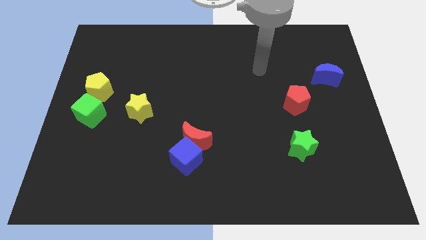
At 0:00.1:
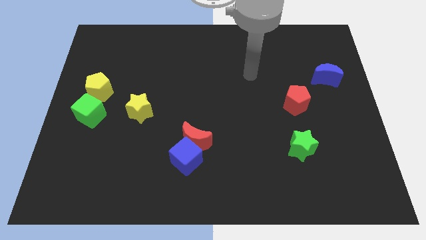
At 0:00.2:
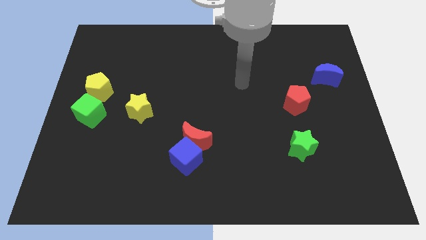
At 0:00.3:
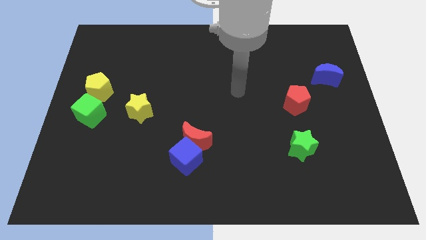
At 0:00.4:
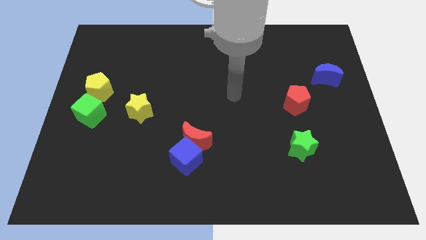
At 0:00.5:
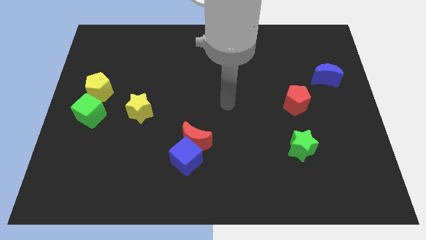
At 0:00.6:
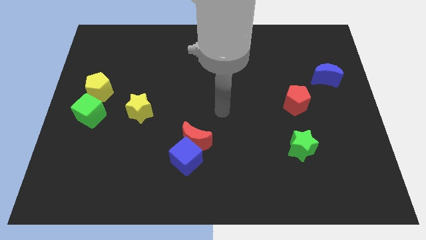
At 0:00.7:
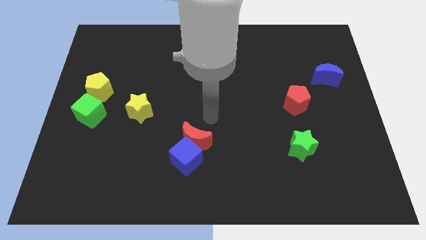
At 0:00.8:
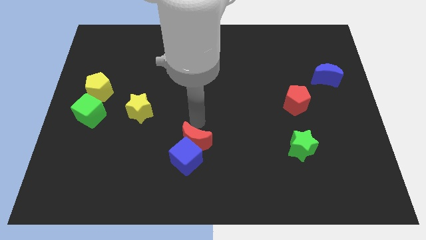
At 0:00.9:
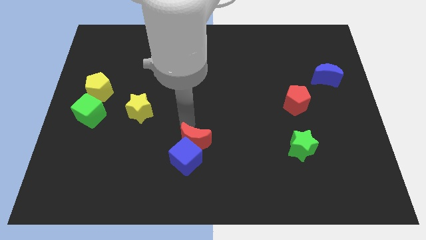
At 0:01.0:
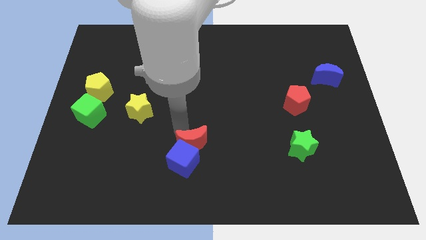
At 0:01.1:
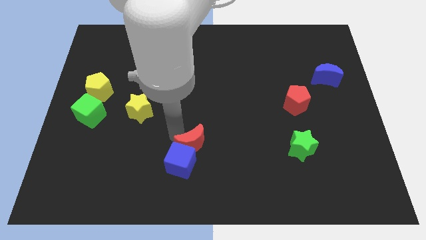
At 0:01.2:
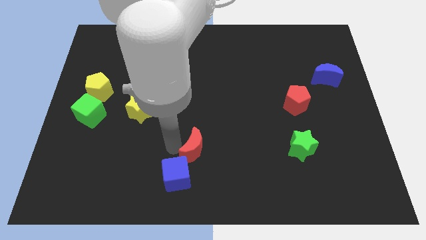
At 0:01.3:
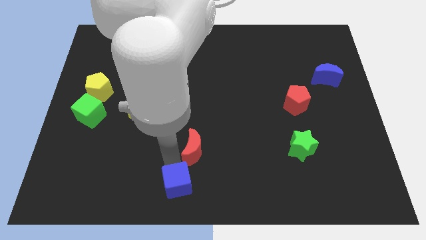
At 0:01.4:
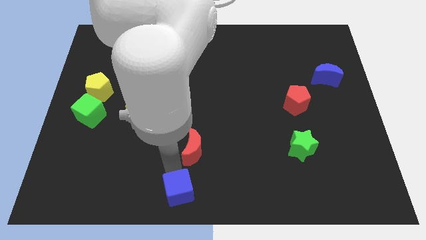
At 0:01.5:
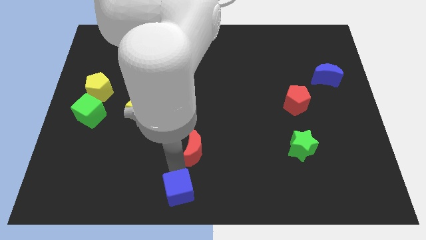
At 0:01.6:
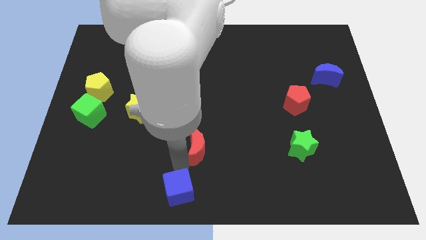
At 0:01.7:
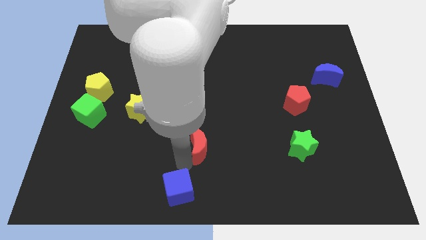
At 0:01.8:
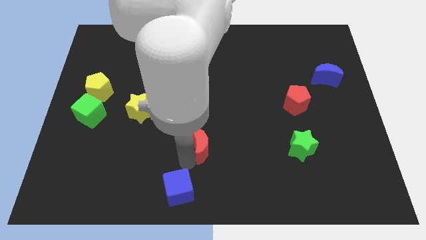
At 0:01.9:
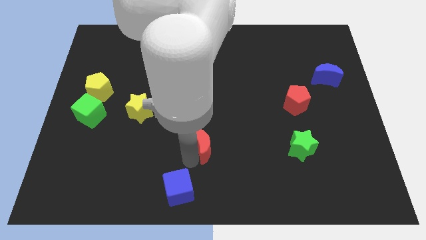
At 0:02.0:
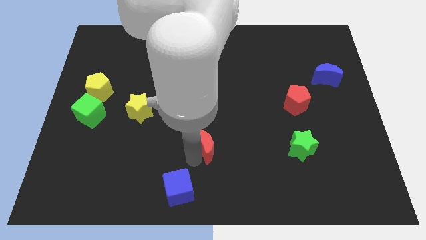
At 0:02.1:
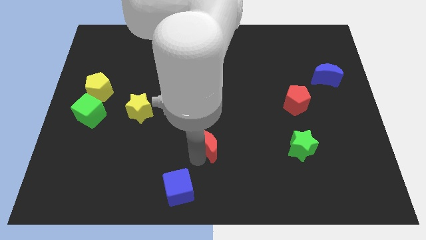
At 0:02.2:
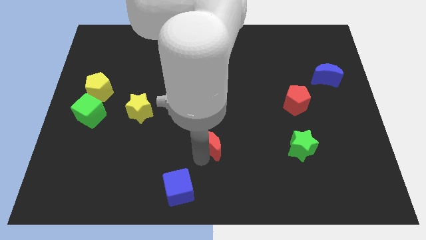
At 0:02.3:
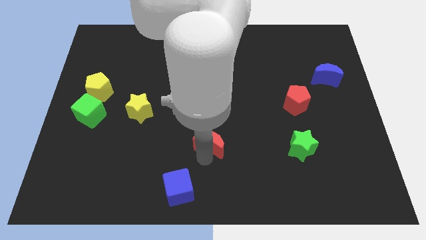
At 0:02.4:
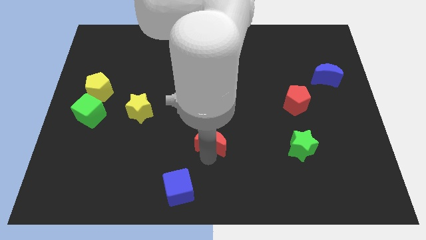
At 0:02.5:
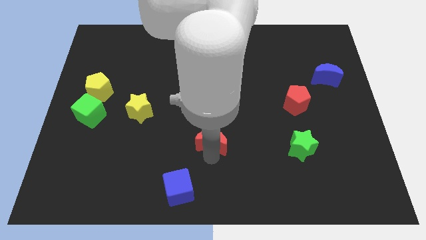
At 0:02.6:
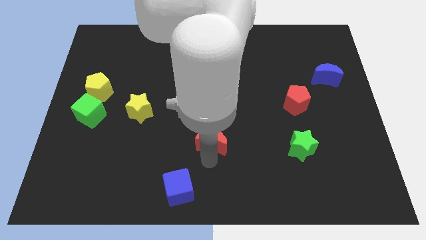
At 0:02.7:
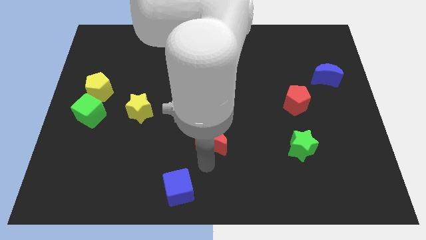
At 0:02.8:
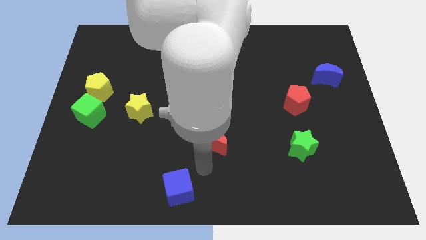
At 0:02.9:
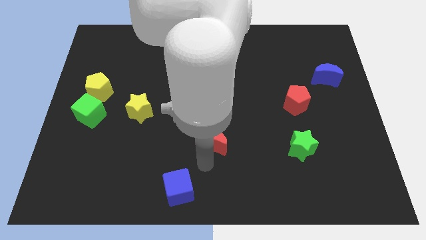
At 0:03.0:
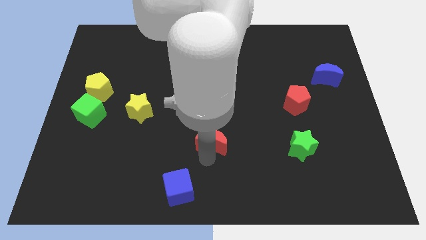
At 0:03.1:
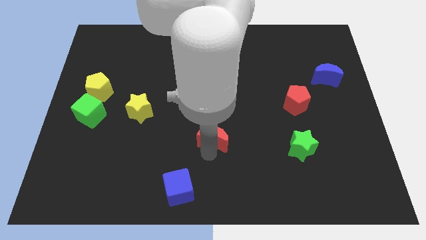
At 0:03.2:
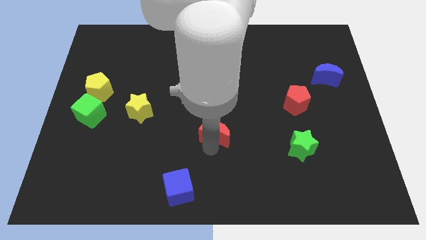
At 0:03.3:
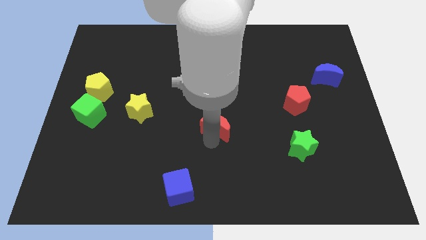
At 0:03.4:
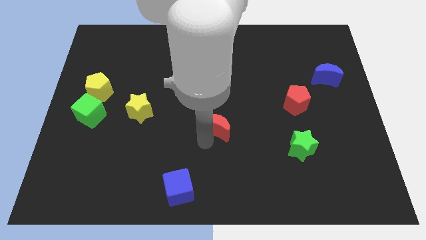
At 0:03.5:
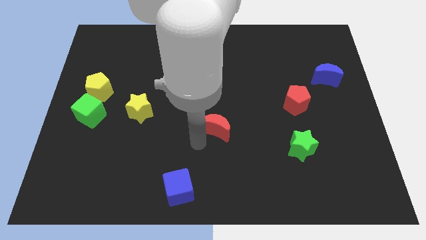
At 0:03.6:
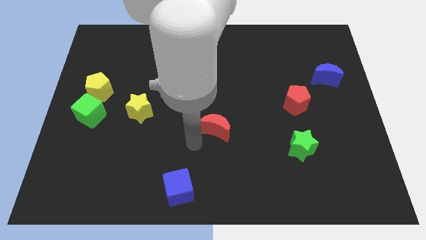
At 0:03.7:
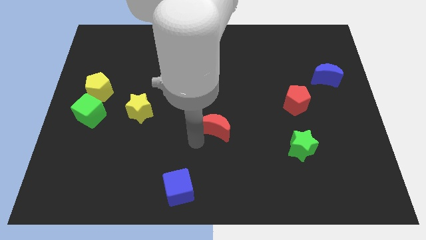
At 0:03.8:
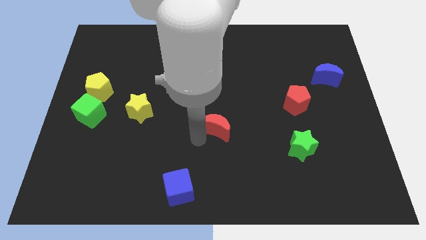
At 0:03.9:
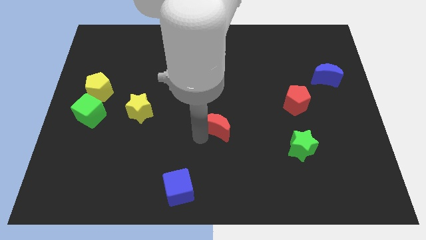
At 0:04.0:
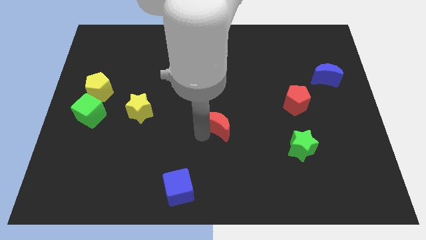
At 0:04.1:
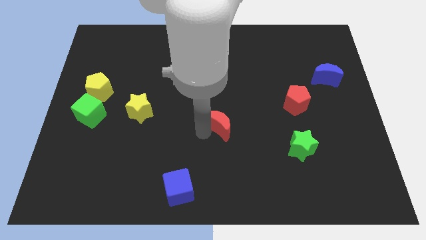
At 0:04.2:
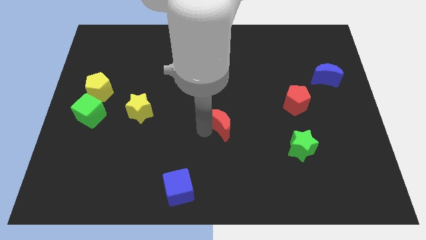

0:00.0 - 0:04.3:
slightly push the red moon upwards and right diagonally

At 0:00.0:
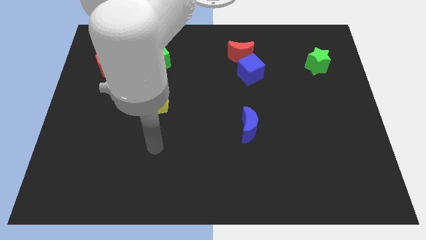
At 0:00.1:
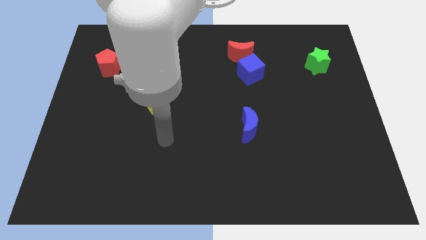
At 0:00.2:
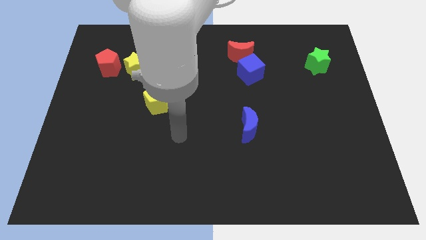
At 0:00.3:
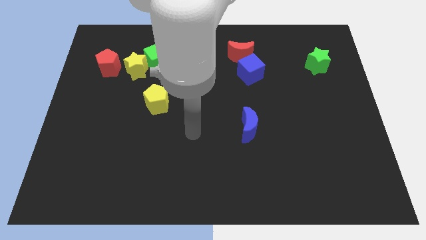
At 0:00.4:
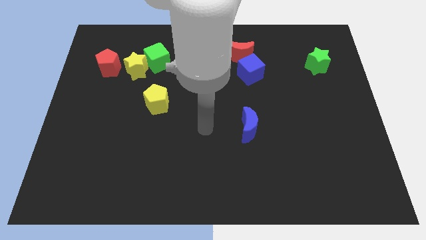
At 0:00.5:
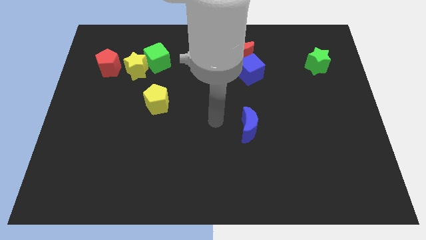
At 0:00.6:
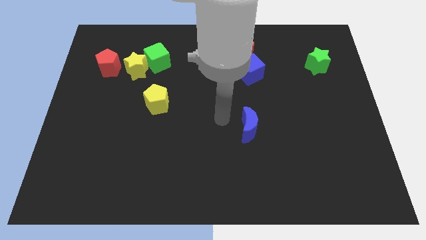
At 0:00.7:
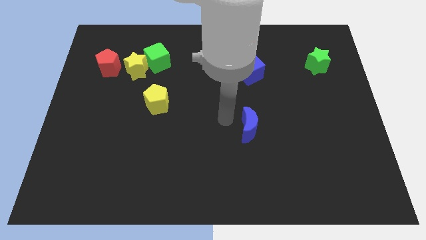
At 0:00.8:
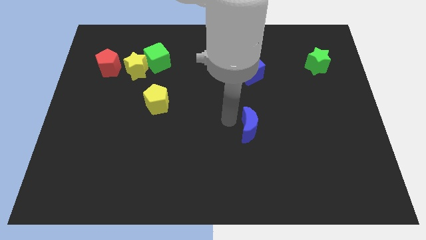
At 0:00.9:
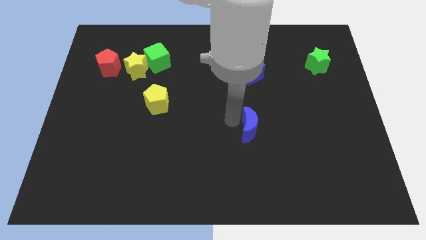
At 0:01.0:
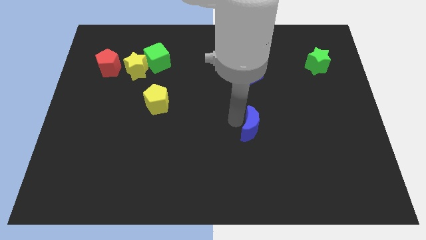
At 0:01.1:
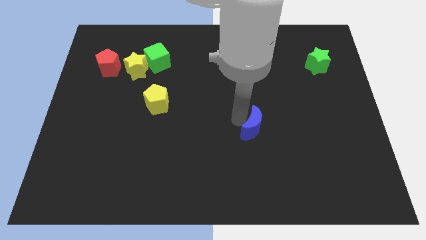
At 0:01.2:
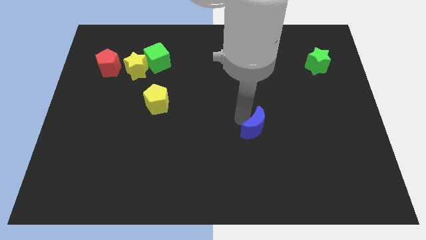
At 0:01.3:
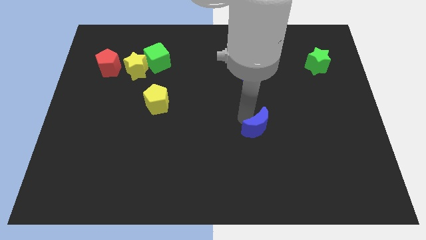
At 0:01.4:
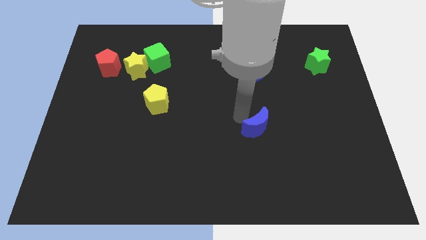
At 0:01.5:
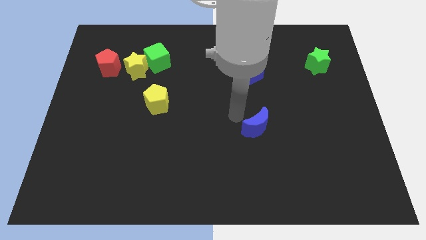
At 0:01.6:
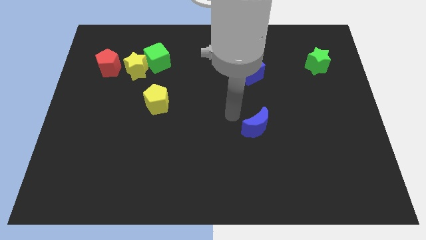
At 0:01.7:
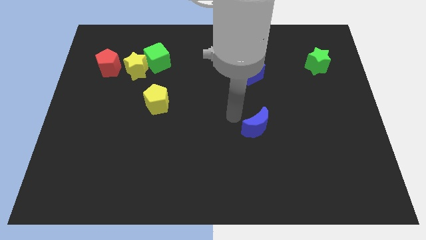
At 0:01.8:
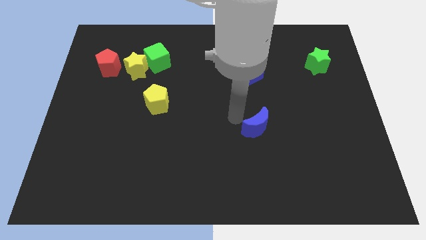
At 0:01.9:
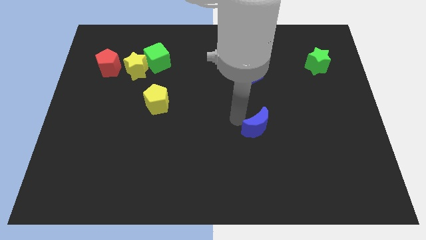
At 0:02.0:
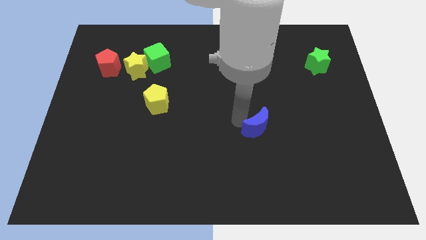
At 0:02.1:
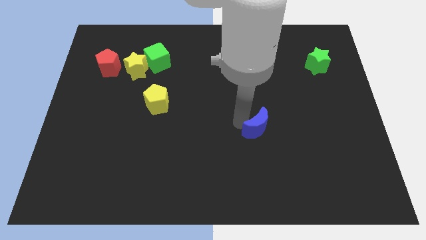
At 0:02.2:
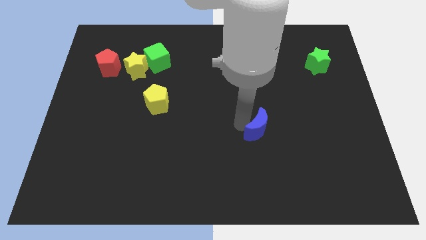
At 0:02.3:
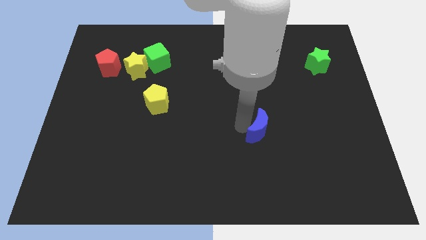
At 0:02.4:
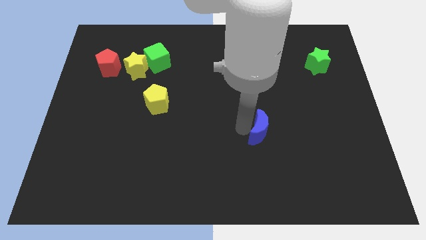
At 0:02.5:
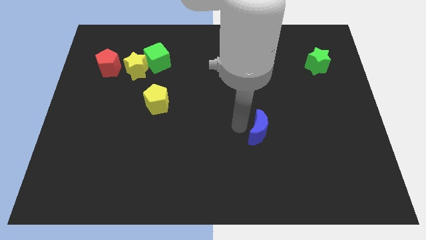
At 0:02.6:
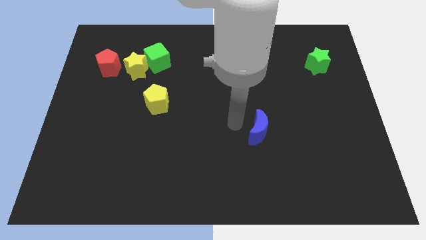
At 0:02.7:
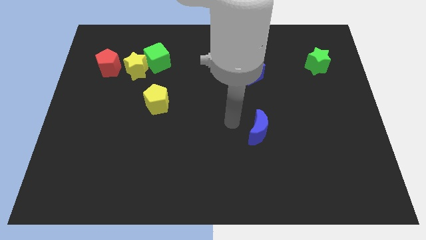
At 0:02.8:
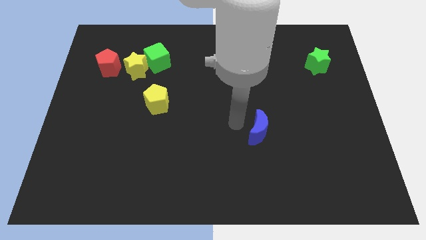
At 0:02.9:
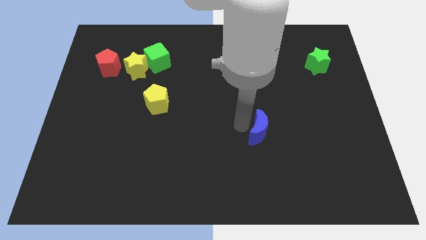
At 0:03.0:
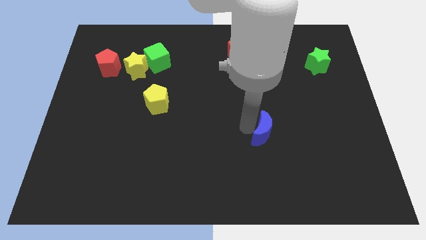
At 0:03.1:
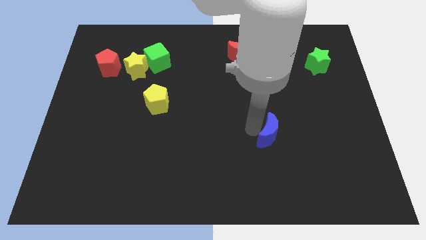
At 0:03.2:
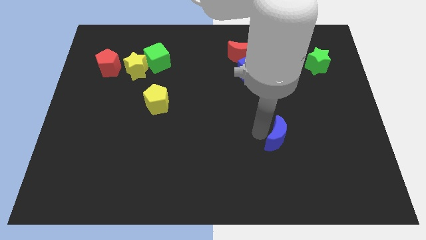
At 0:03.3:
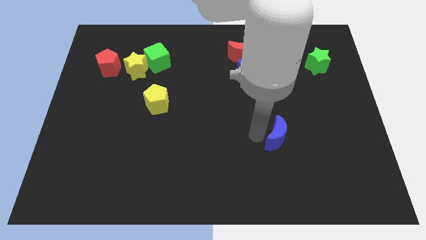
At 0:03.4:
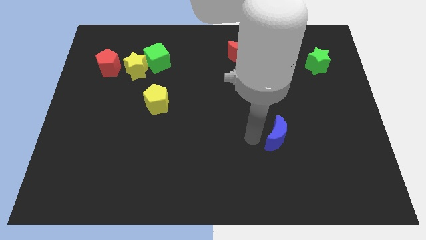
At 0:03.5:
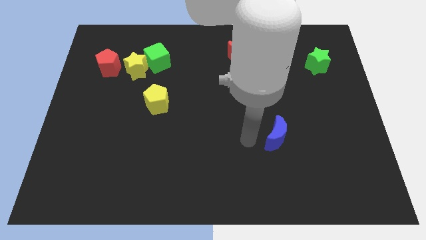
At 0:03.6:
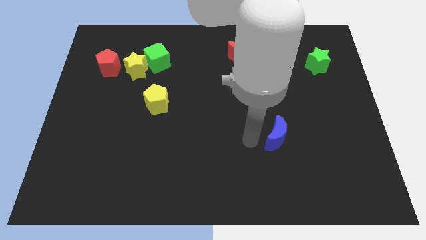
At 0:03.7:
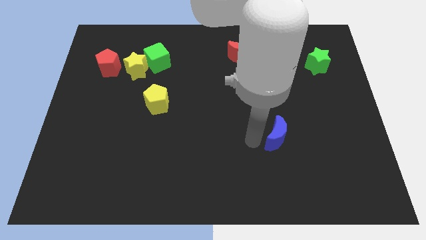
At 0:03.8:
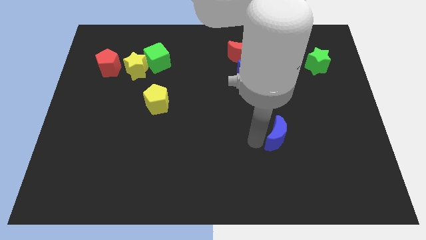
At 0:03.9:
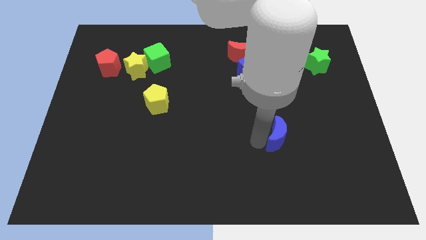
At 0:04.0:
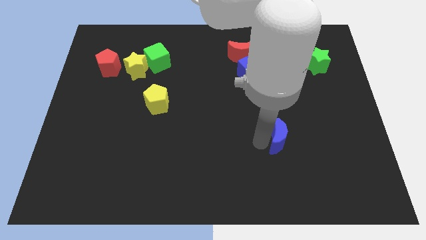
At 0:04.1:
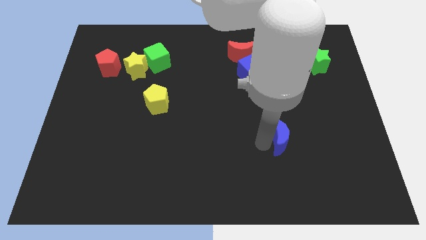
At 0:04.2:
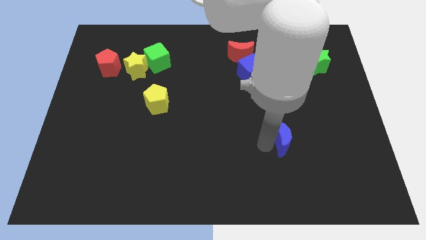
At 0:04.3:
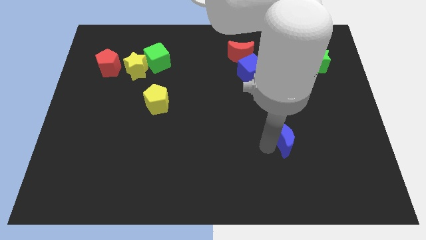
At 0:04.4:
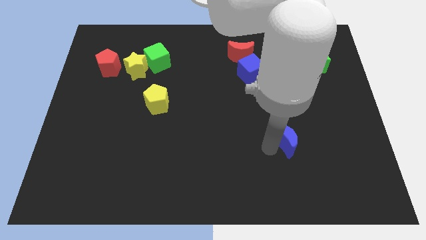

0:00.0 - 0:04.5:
push the blue moon a little to the right
